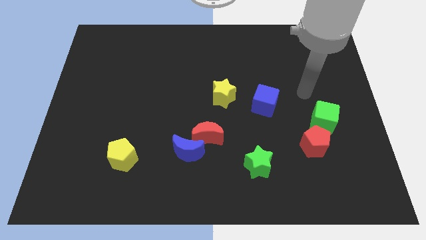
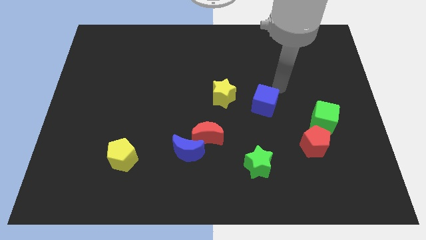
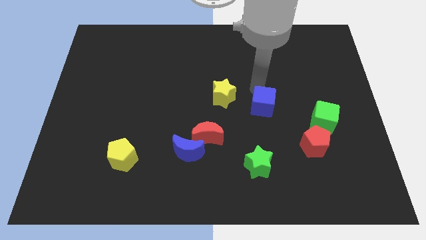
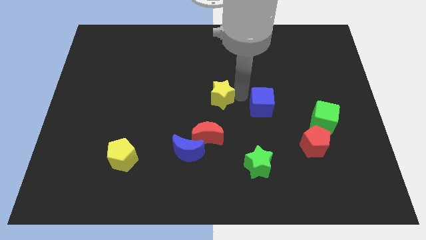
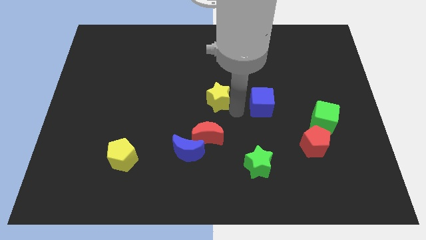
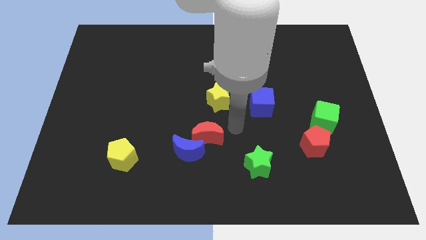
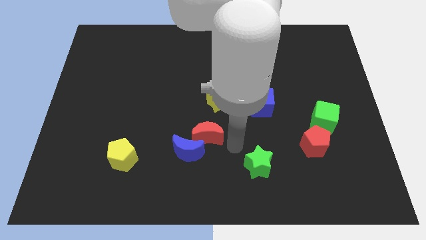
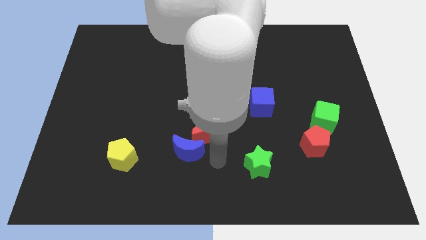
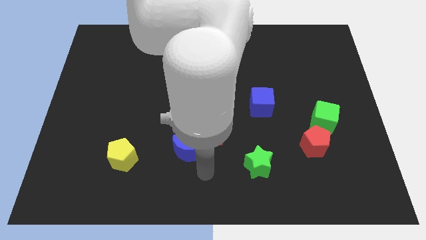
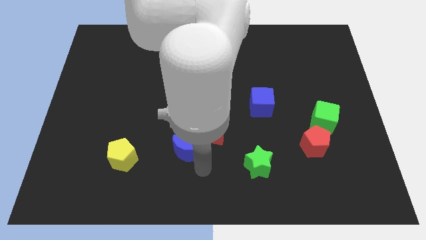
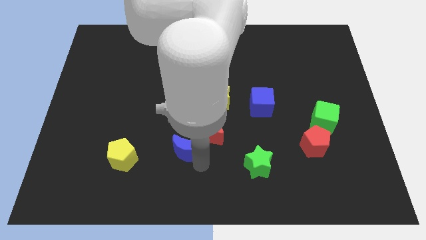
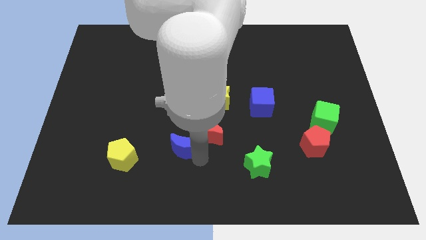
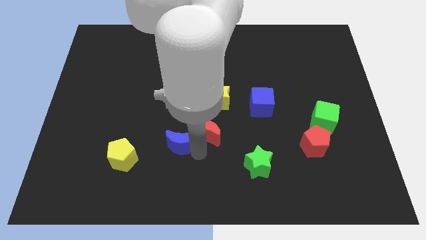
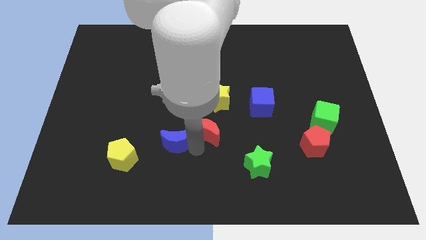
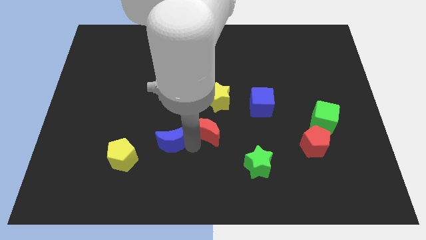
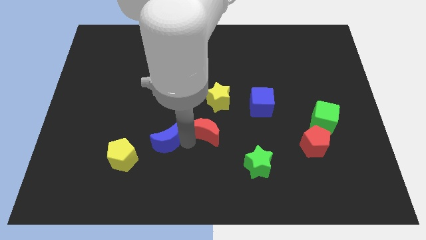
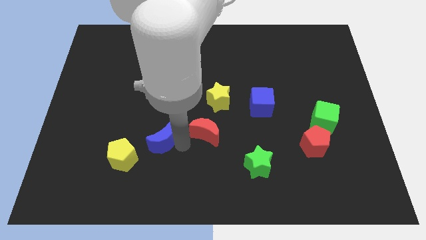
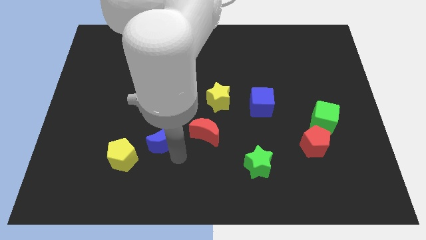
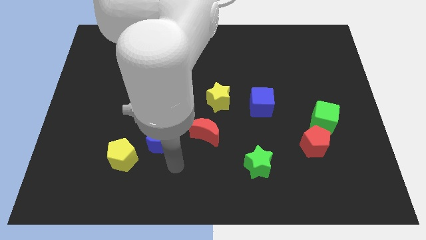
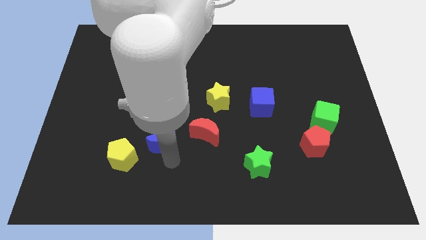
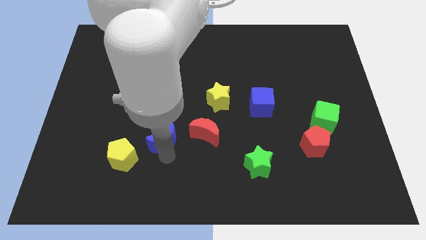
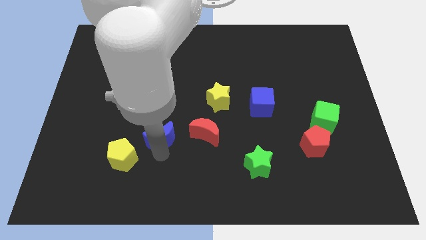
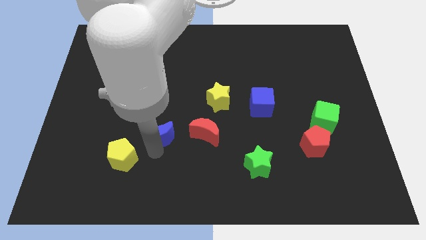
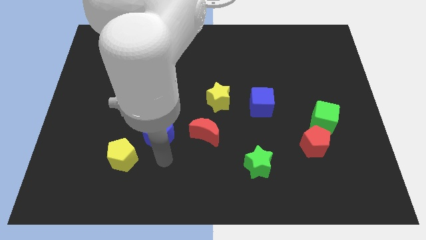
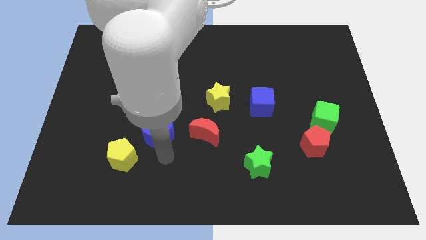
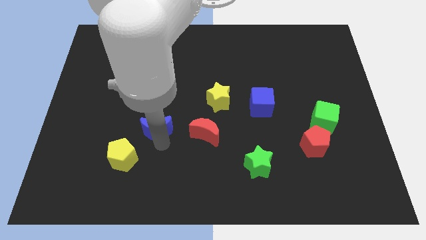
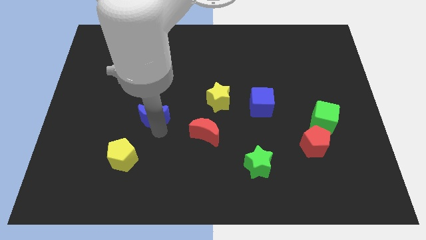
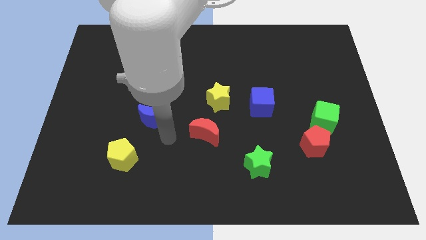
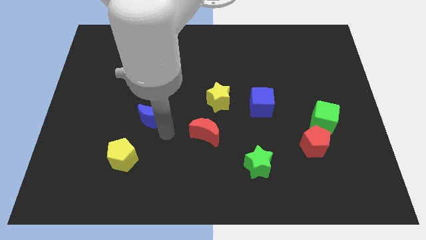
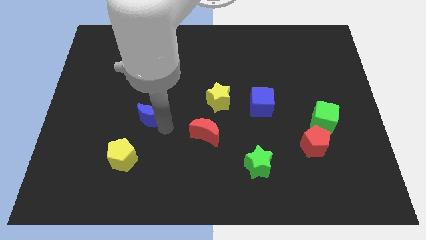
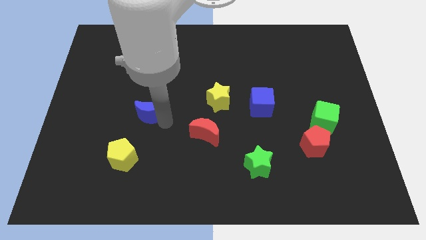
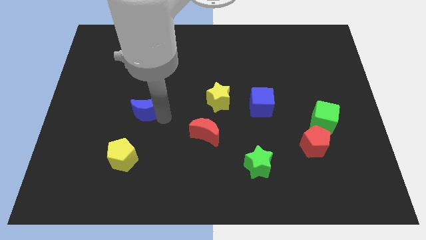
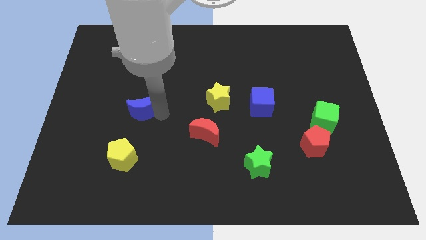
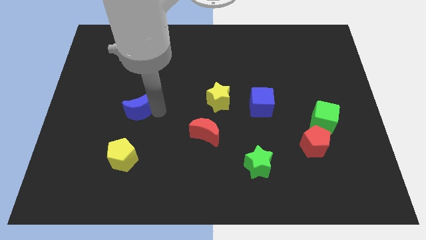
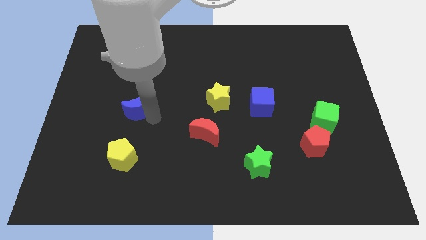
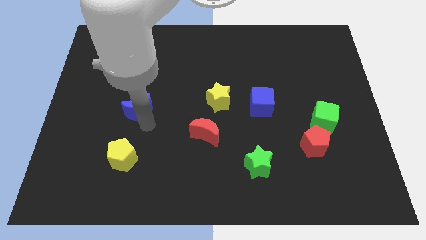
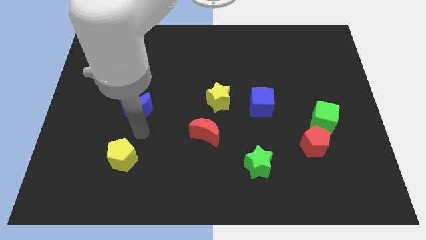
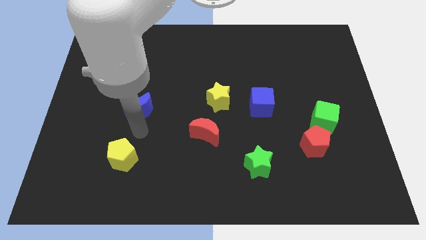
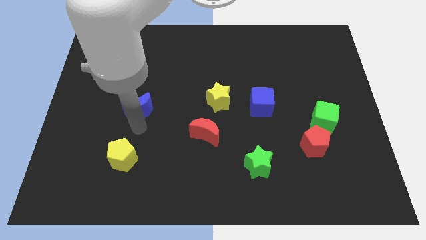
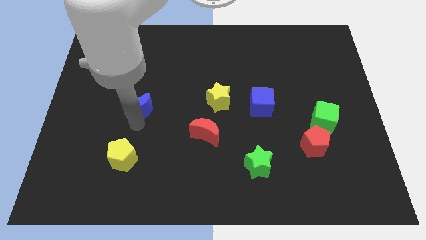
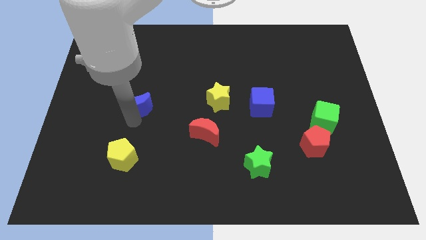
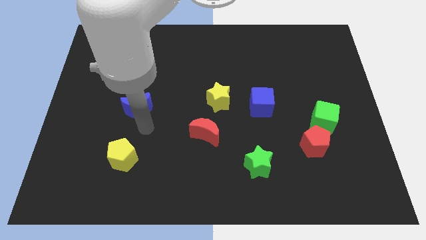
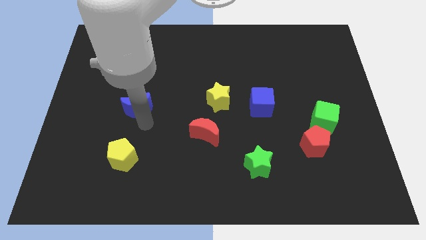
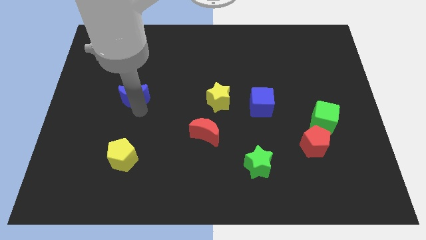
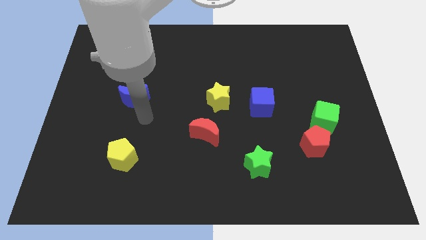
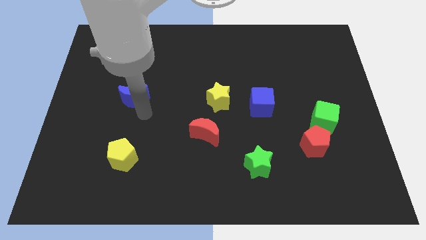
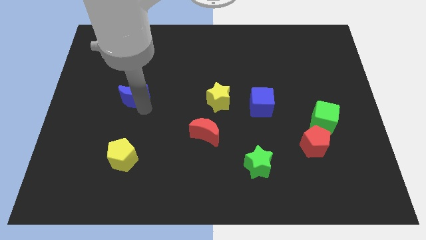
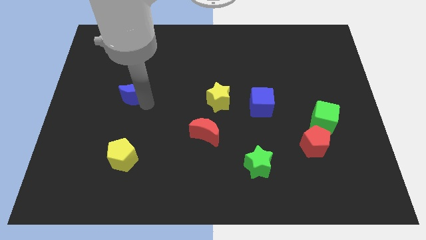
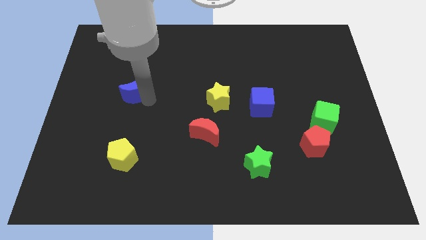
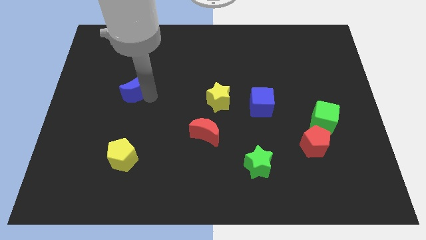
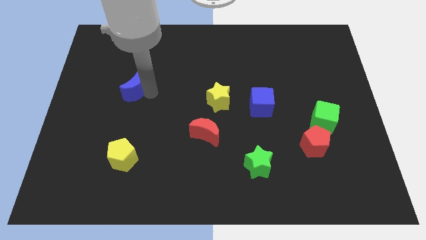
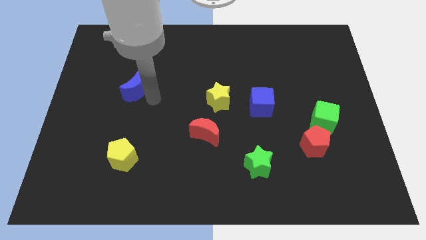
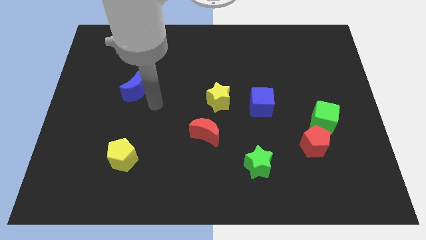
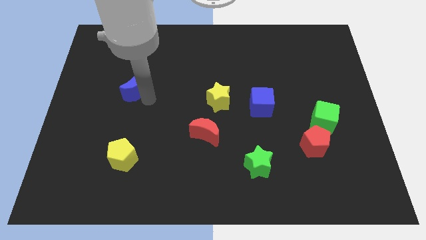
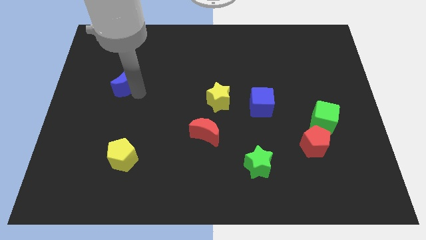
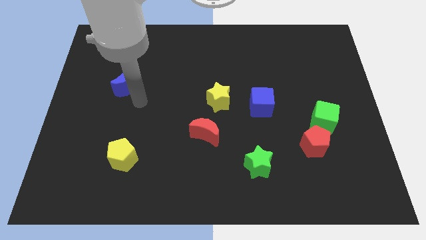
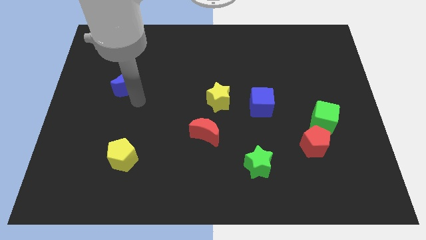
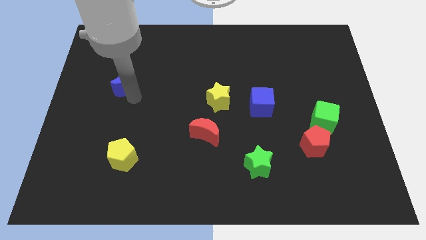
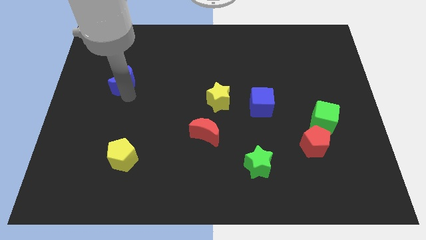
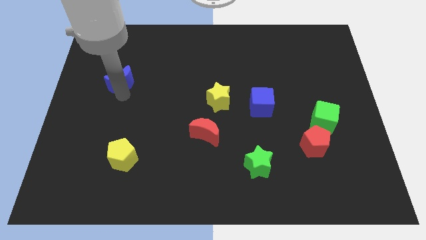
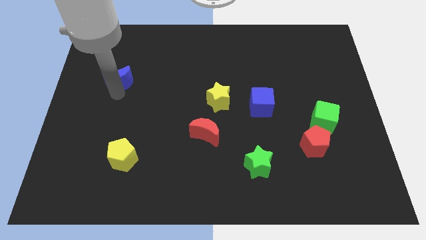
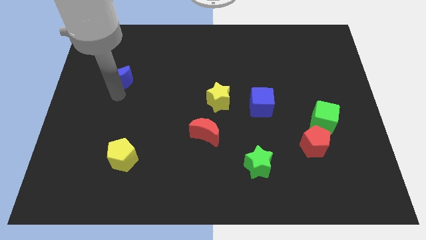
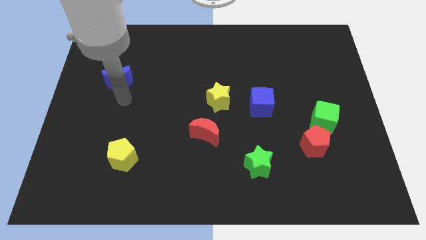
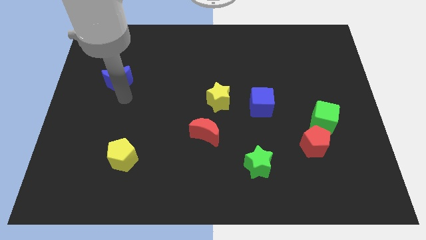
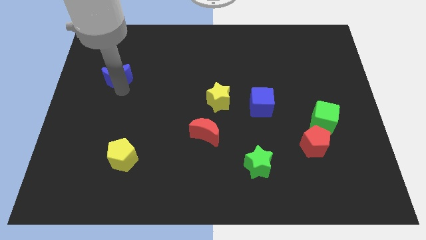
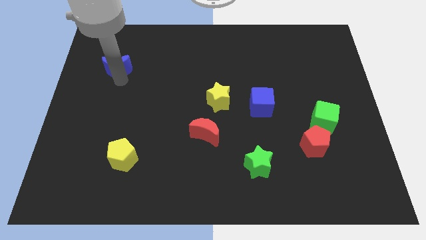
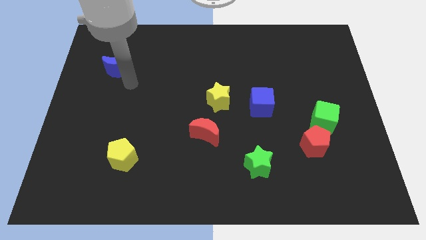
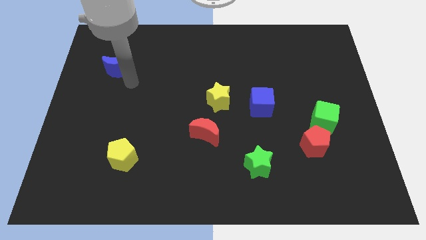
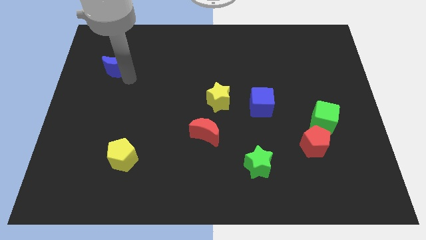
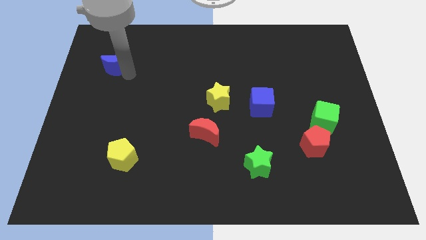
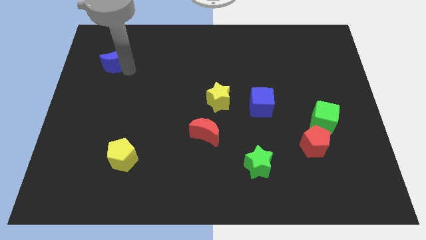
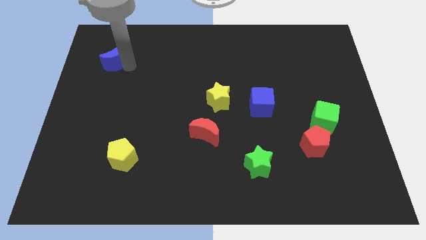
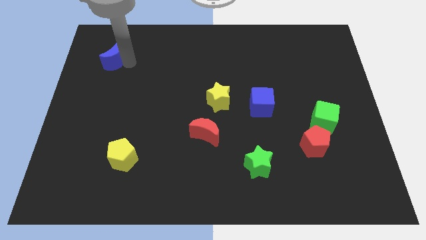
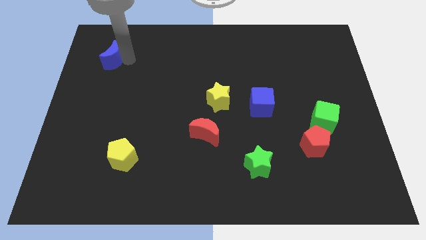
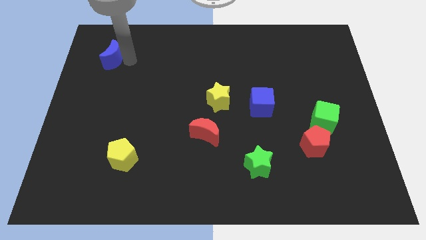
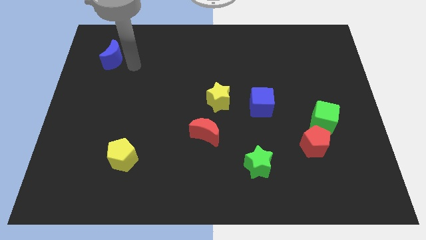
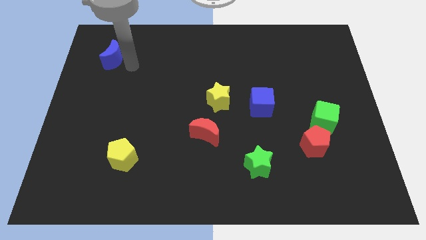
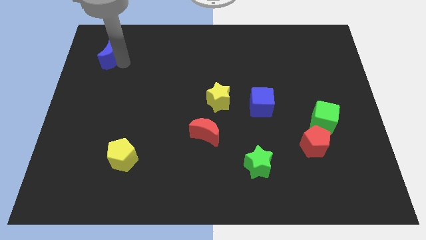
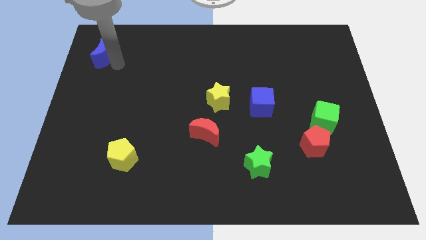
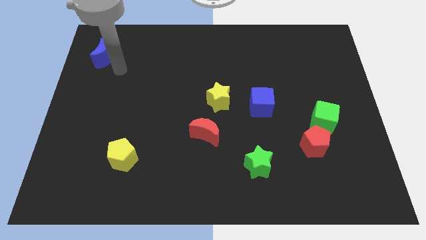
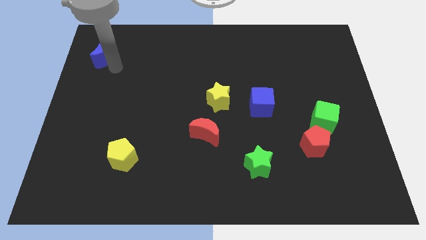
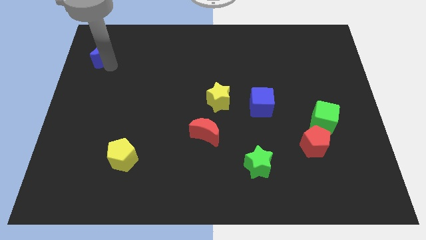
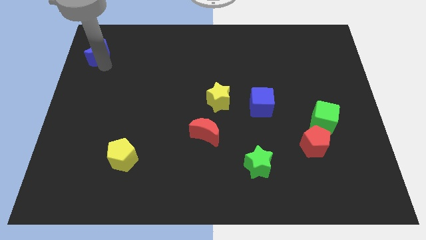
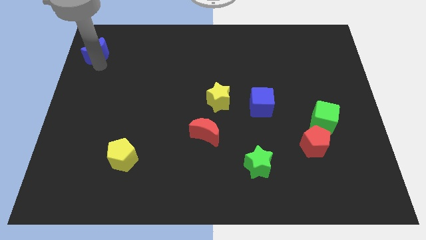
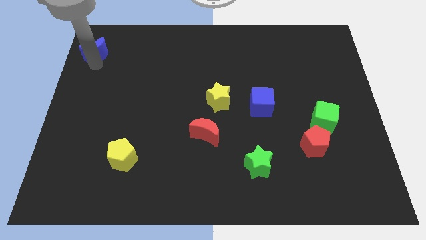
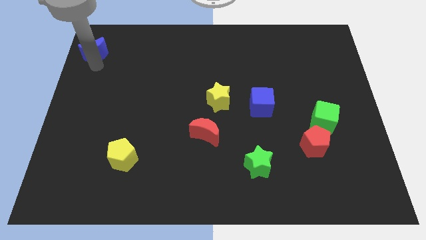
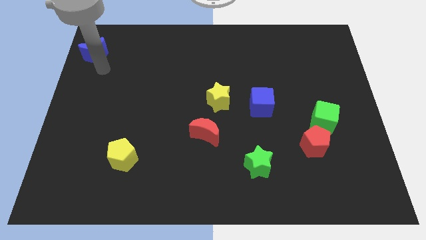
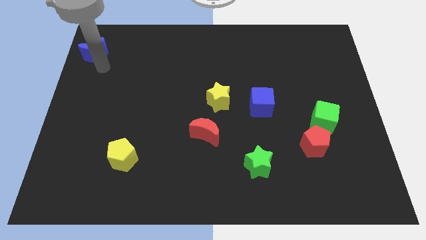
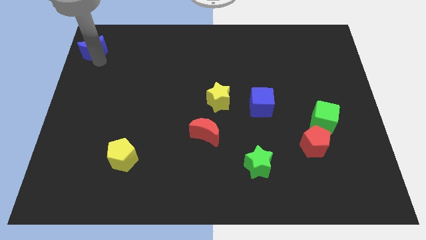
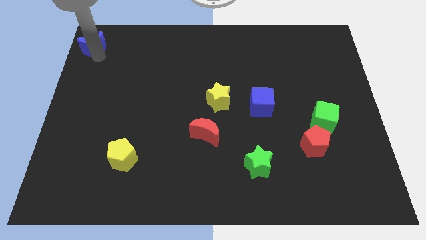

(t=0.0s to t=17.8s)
slide the blue moon to the top left of the board
